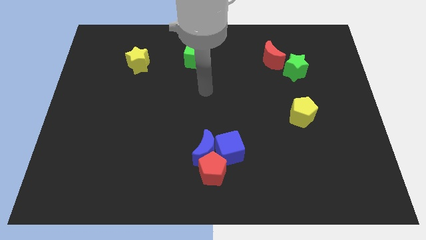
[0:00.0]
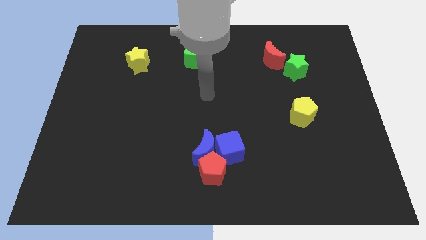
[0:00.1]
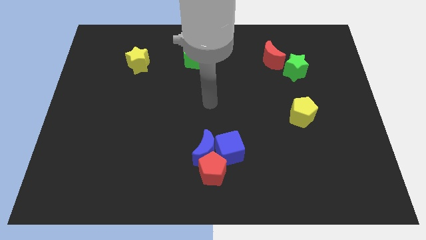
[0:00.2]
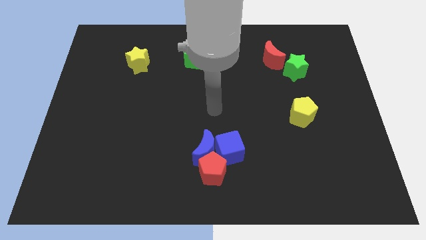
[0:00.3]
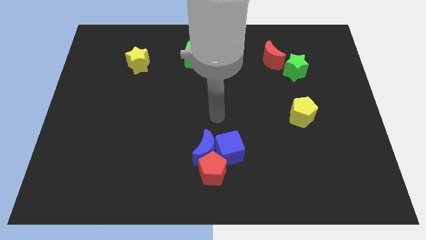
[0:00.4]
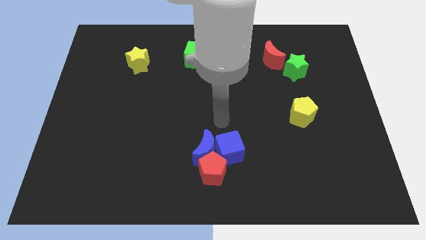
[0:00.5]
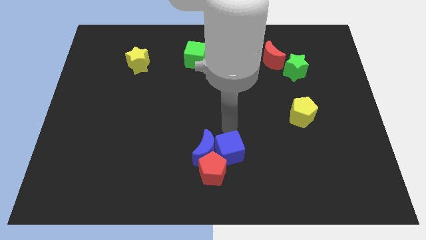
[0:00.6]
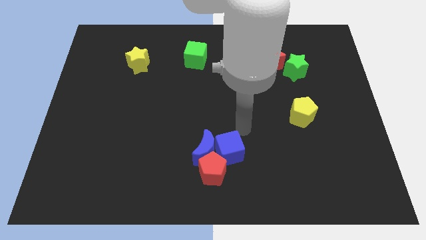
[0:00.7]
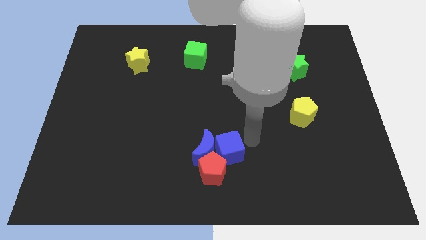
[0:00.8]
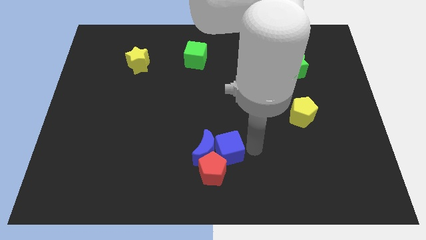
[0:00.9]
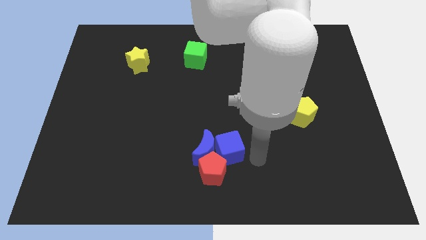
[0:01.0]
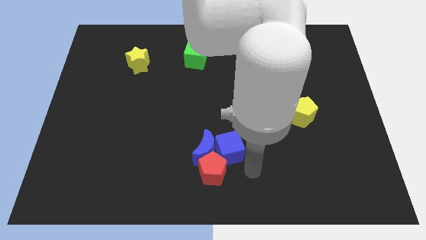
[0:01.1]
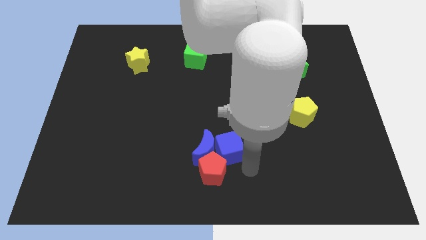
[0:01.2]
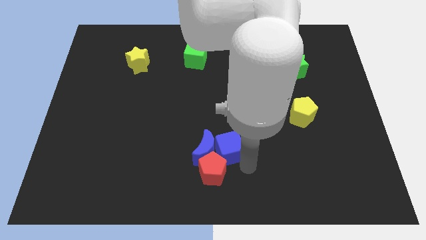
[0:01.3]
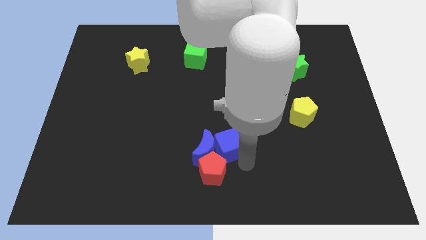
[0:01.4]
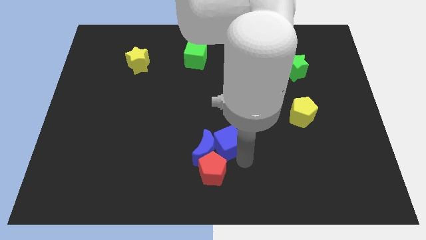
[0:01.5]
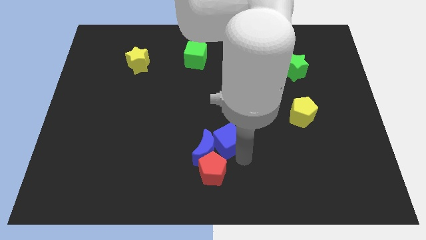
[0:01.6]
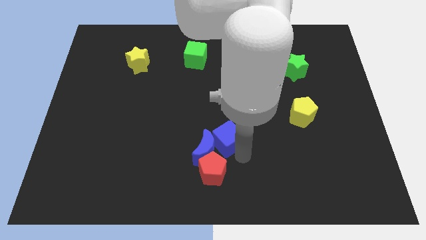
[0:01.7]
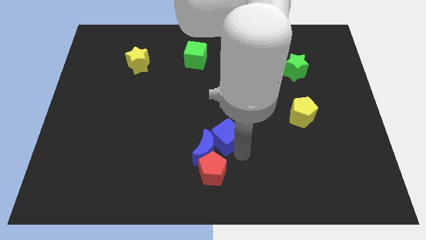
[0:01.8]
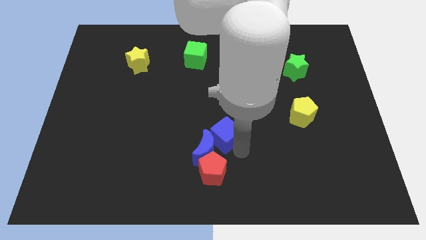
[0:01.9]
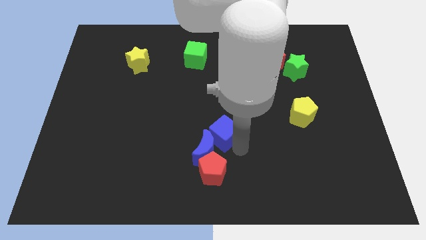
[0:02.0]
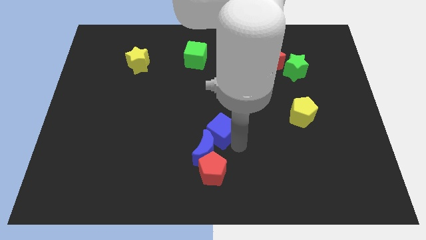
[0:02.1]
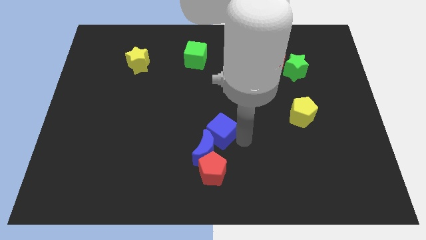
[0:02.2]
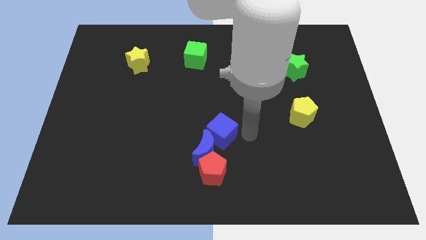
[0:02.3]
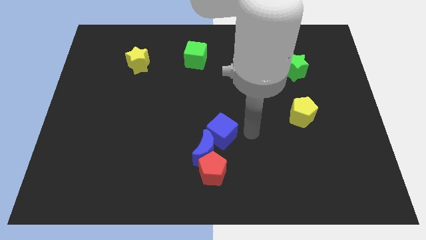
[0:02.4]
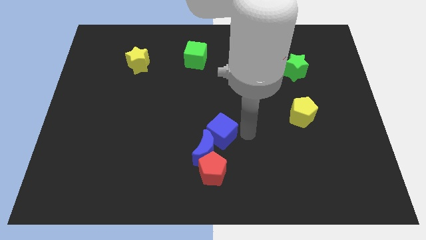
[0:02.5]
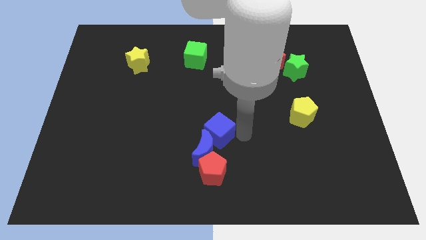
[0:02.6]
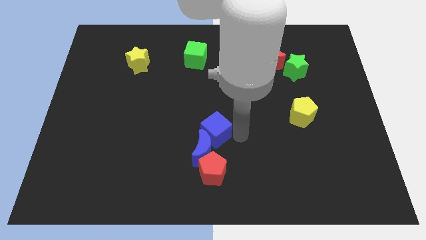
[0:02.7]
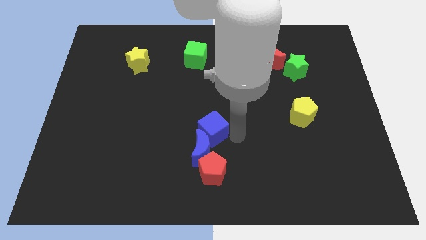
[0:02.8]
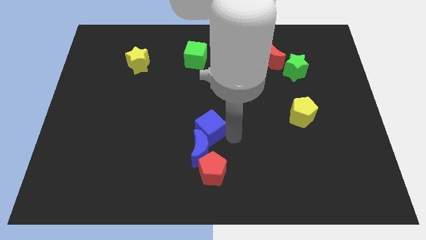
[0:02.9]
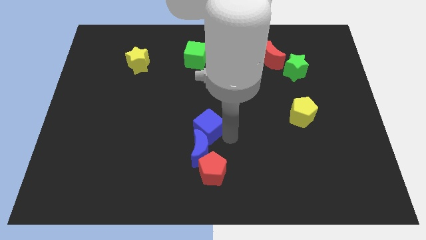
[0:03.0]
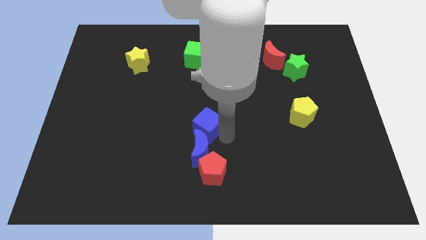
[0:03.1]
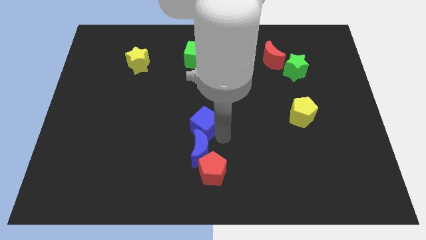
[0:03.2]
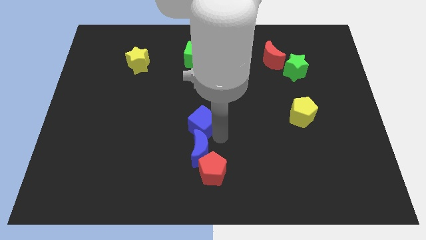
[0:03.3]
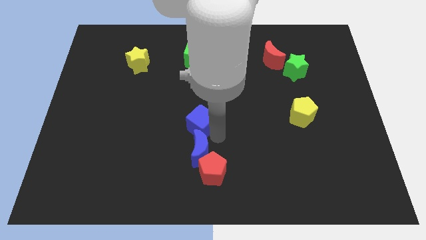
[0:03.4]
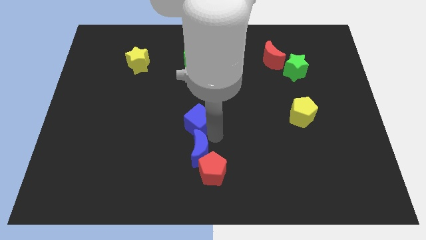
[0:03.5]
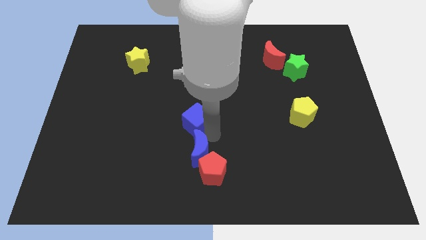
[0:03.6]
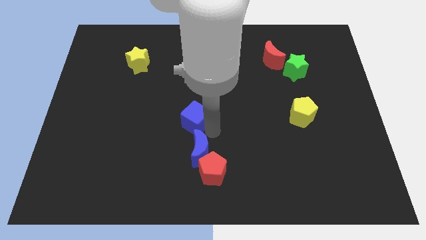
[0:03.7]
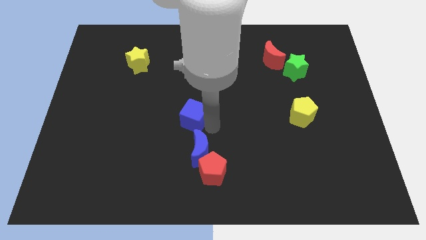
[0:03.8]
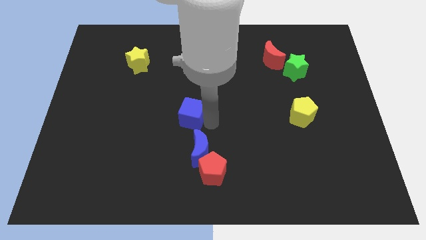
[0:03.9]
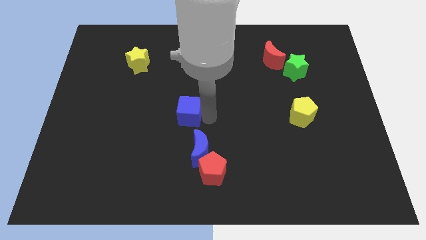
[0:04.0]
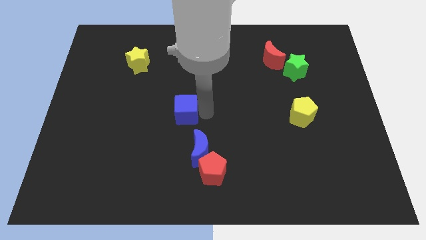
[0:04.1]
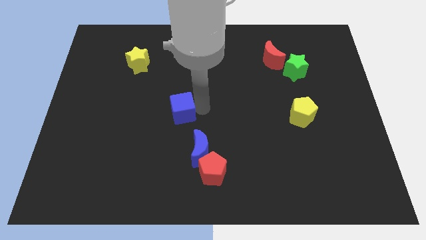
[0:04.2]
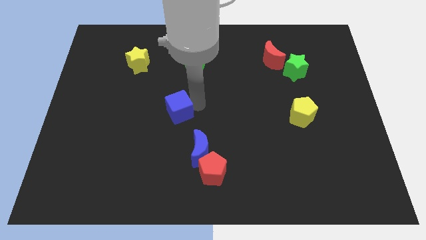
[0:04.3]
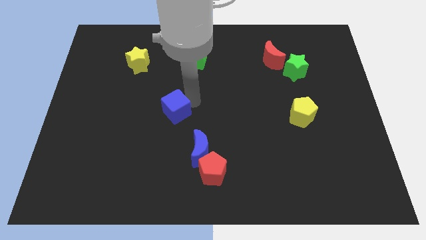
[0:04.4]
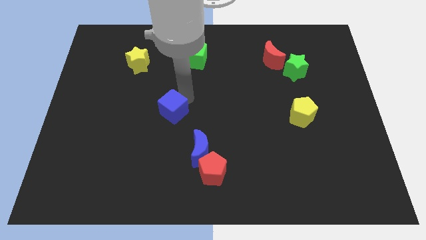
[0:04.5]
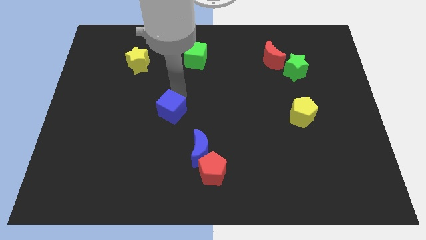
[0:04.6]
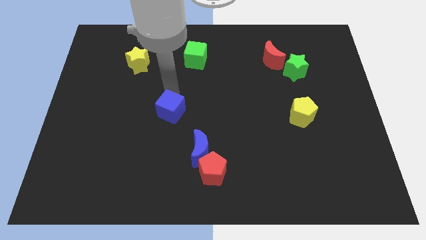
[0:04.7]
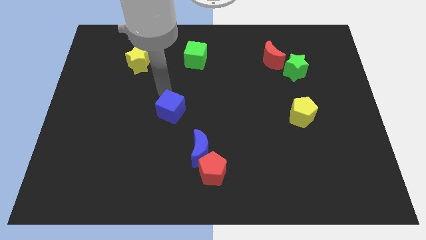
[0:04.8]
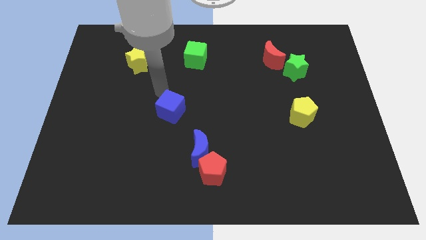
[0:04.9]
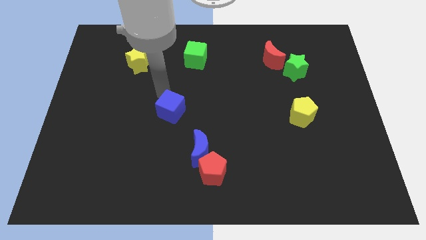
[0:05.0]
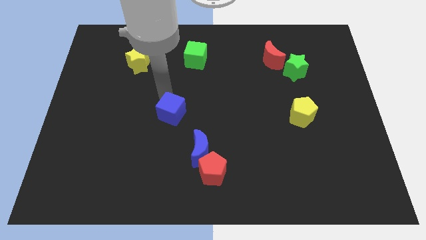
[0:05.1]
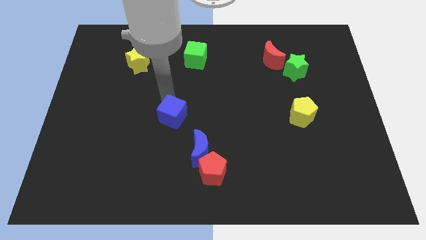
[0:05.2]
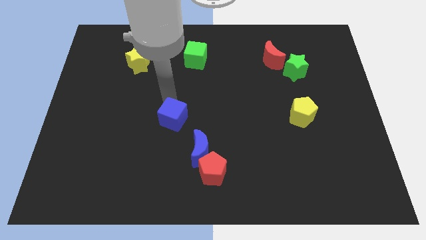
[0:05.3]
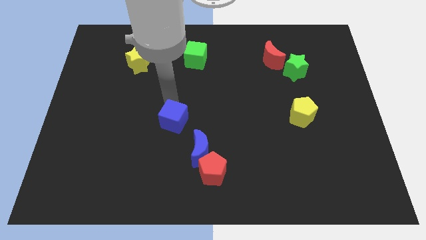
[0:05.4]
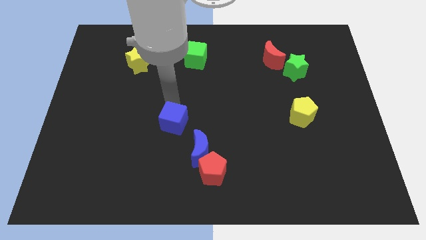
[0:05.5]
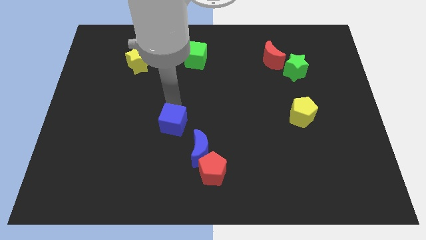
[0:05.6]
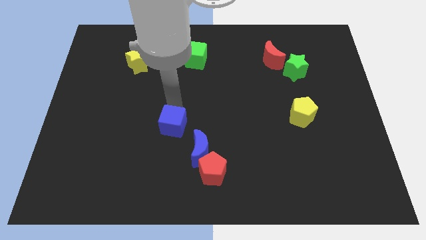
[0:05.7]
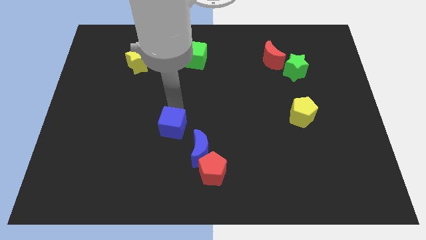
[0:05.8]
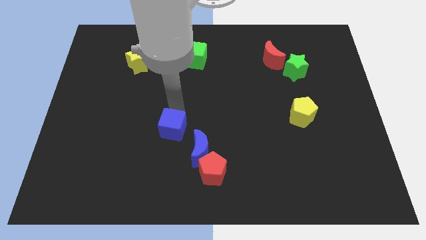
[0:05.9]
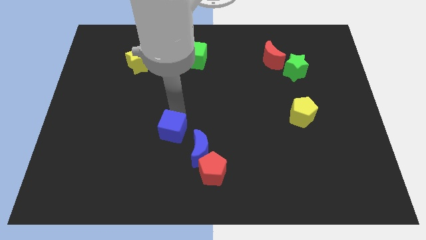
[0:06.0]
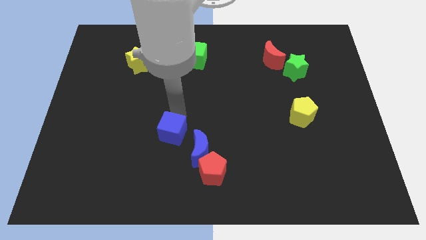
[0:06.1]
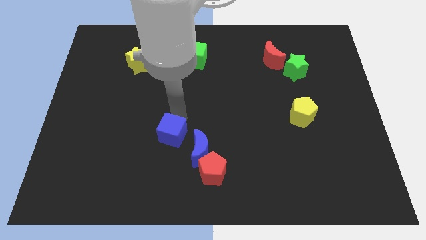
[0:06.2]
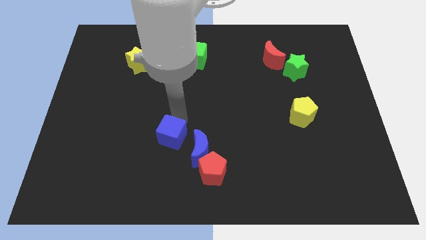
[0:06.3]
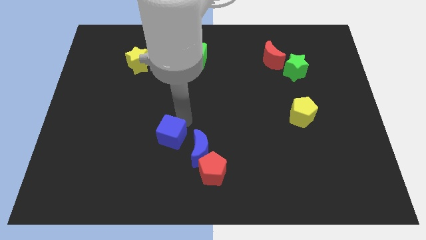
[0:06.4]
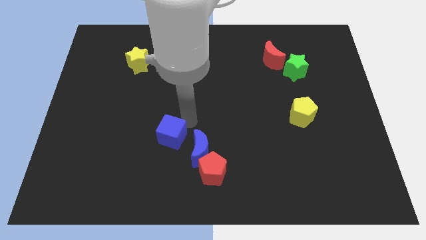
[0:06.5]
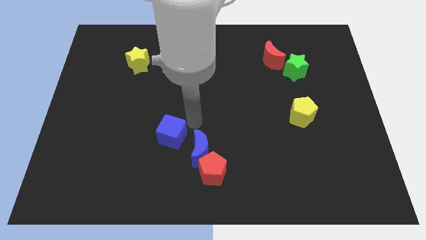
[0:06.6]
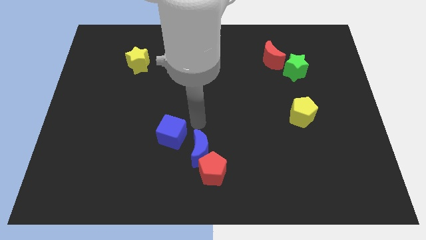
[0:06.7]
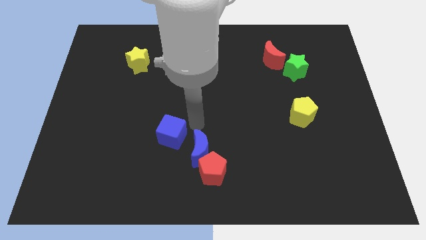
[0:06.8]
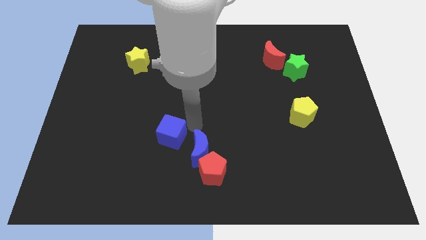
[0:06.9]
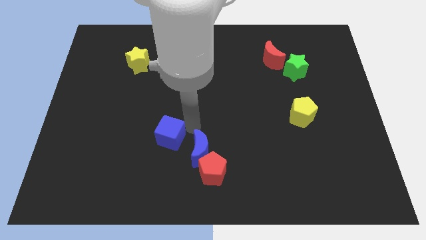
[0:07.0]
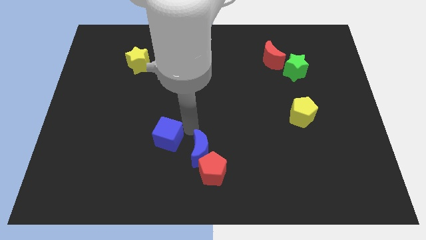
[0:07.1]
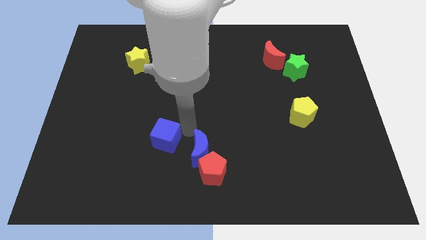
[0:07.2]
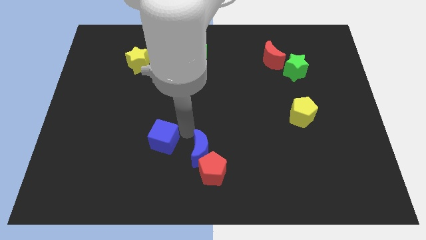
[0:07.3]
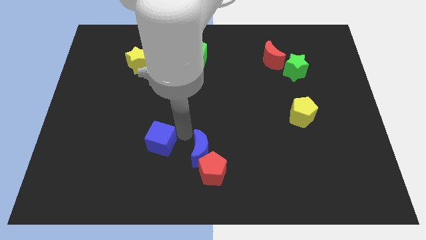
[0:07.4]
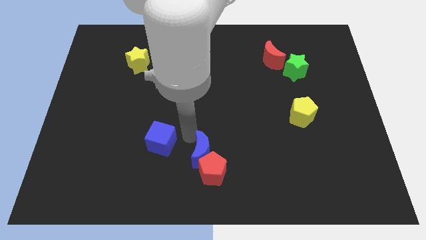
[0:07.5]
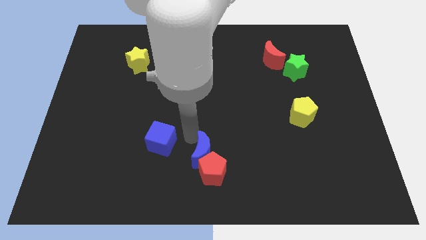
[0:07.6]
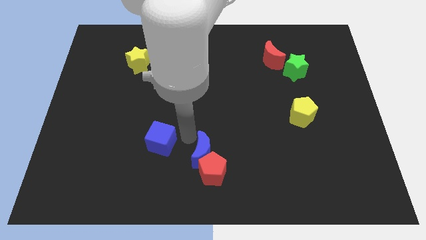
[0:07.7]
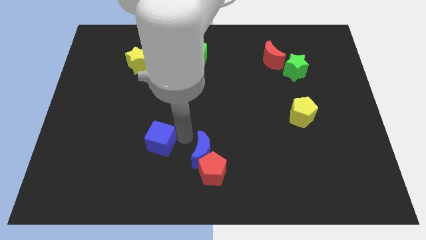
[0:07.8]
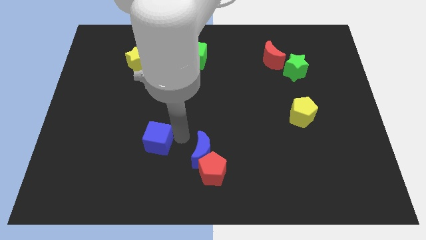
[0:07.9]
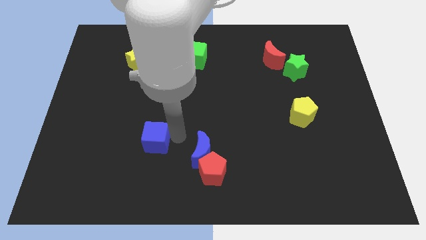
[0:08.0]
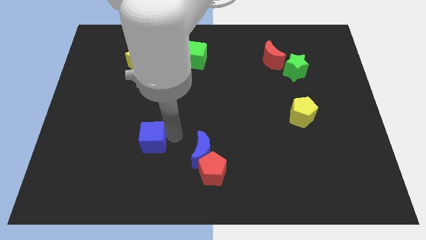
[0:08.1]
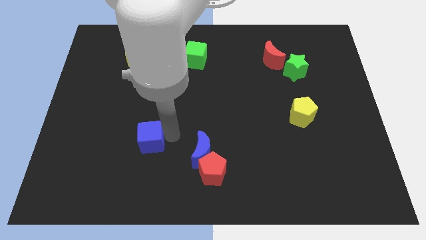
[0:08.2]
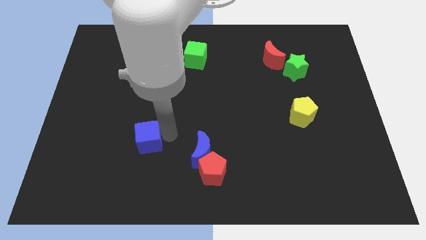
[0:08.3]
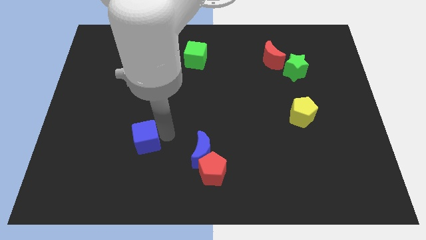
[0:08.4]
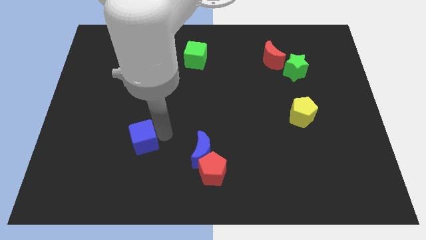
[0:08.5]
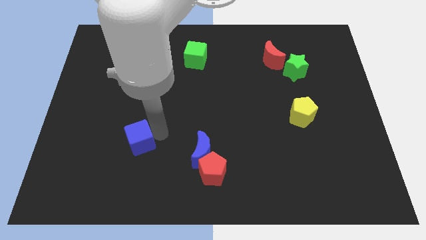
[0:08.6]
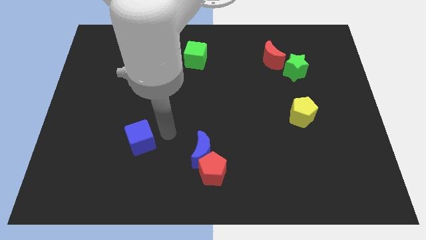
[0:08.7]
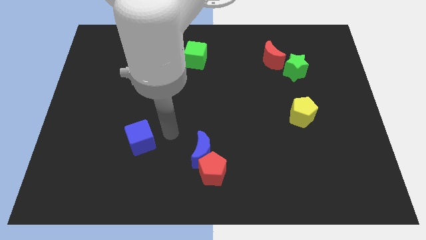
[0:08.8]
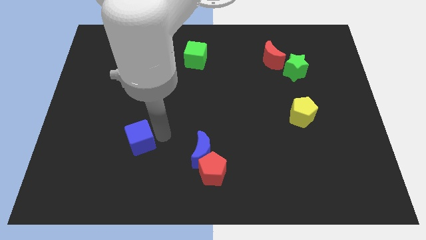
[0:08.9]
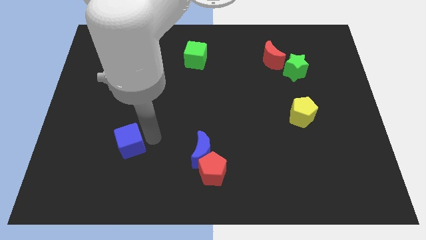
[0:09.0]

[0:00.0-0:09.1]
move the blue cube left
